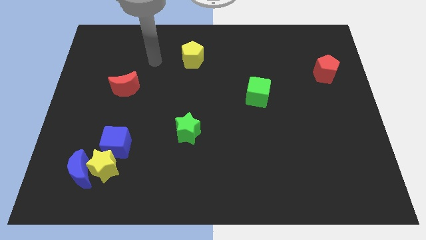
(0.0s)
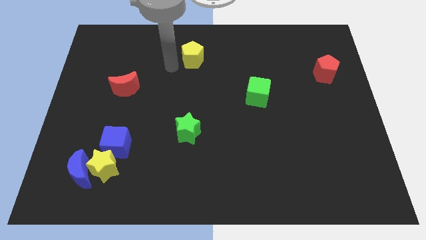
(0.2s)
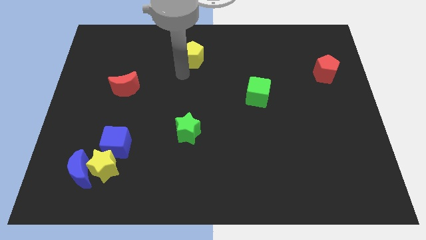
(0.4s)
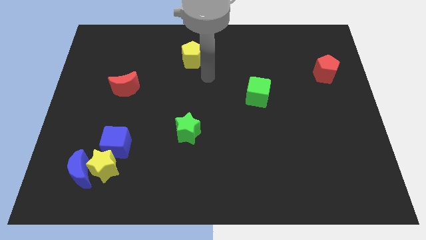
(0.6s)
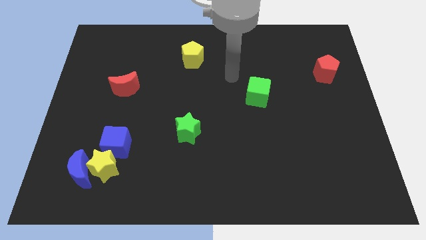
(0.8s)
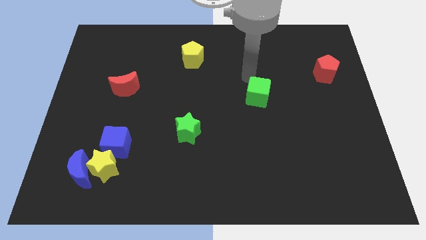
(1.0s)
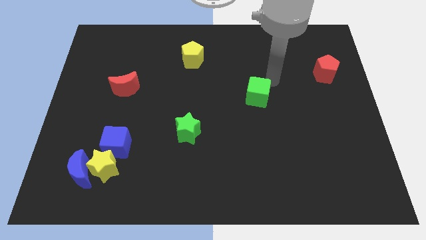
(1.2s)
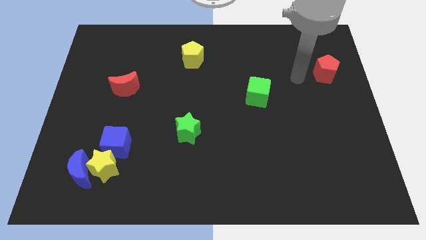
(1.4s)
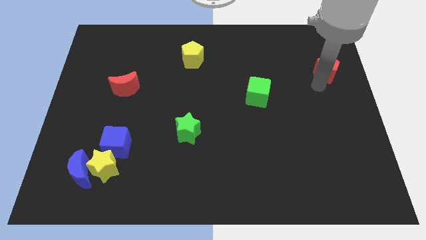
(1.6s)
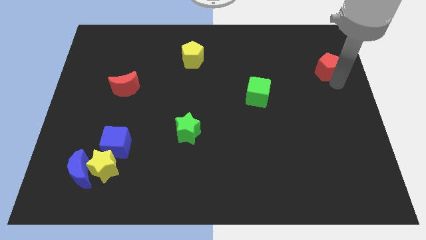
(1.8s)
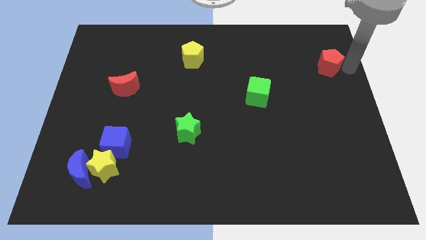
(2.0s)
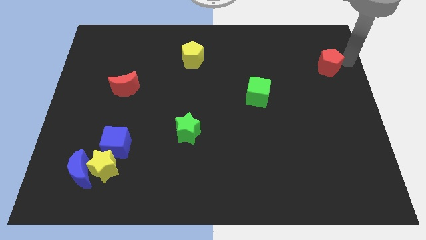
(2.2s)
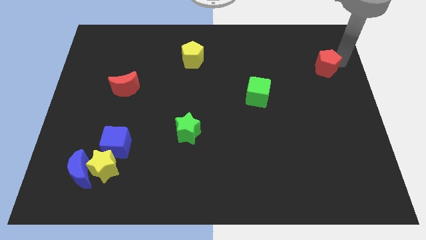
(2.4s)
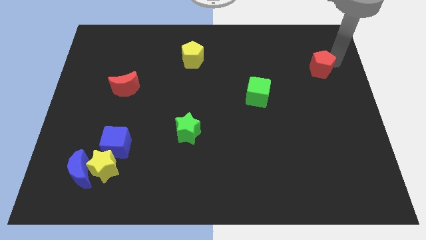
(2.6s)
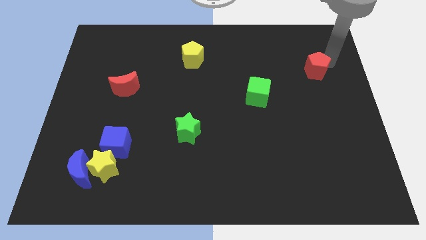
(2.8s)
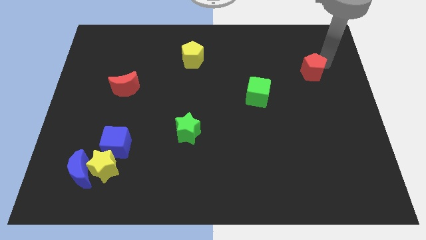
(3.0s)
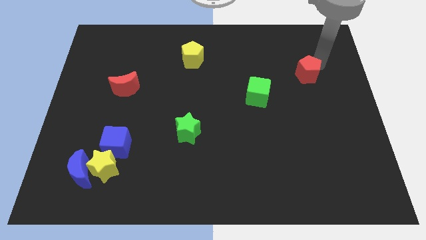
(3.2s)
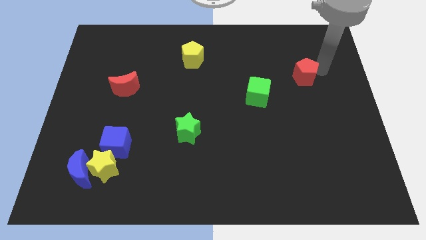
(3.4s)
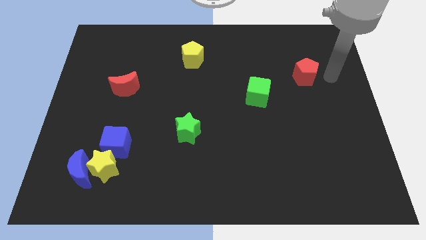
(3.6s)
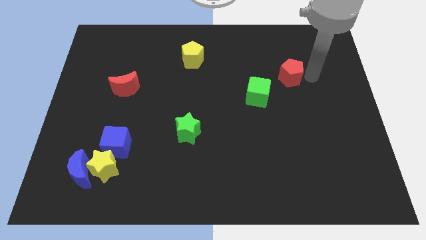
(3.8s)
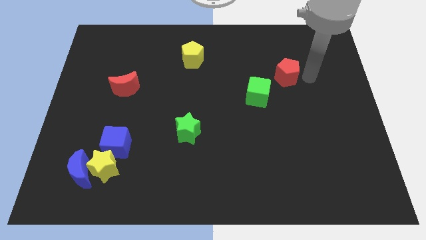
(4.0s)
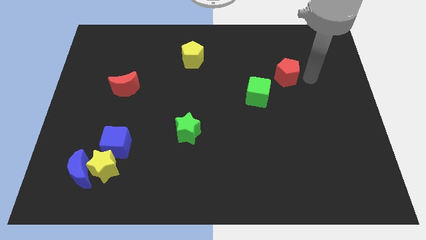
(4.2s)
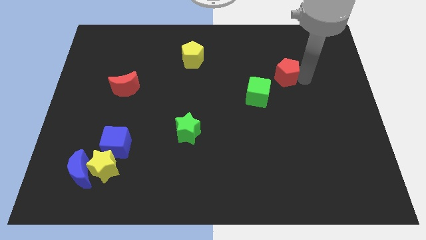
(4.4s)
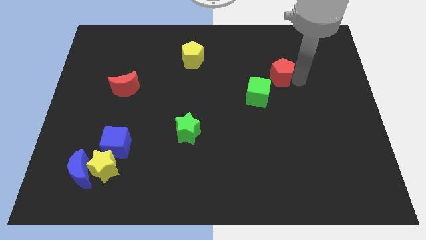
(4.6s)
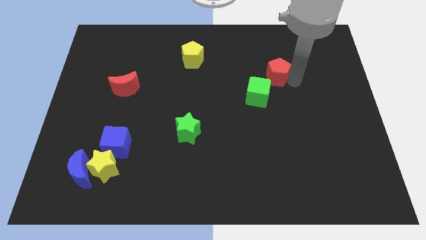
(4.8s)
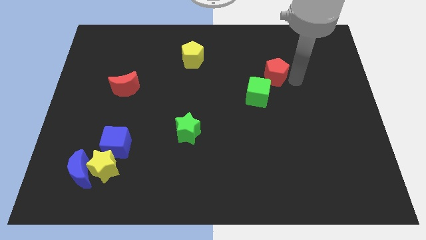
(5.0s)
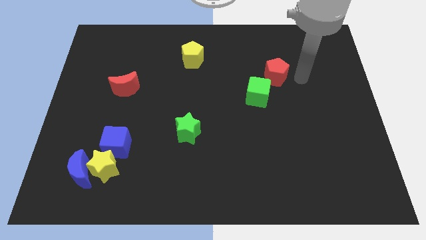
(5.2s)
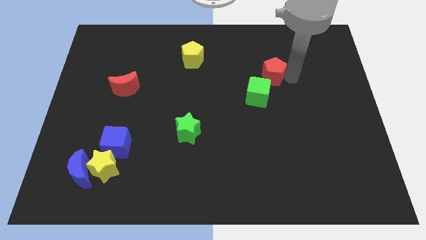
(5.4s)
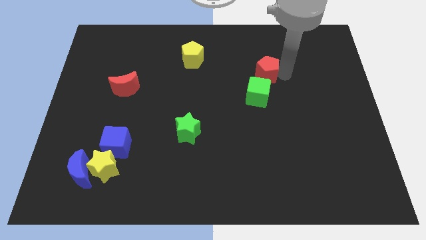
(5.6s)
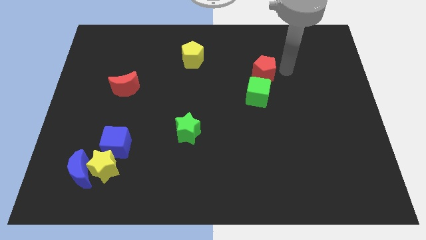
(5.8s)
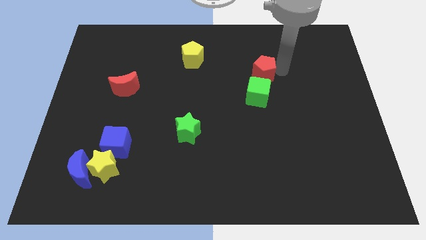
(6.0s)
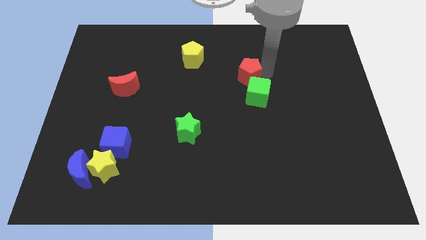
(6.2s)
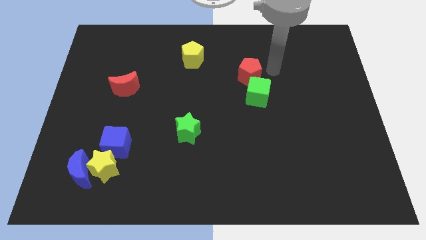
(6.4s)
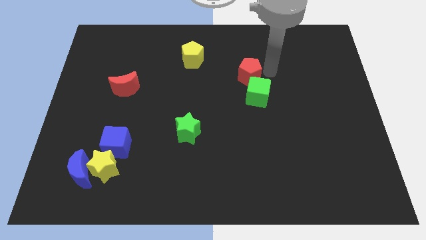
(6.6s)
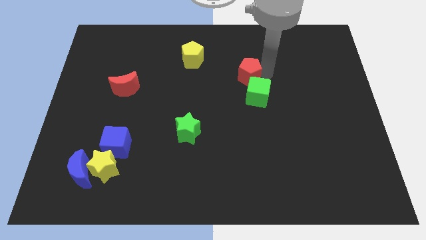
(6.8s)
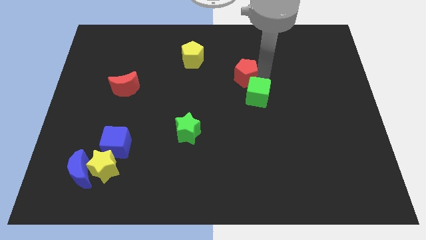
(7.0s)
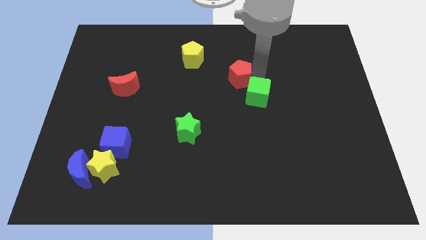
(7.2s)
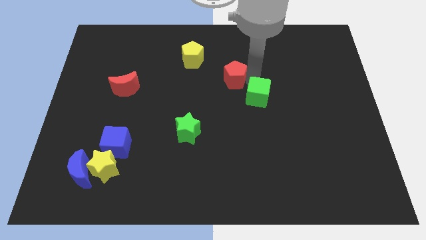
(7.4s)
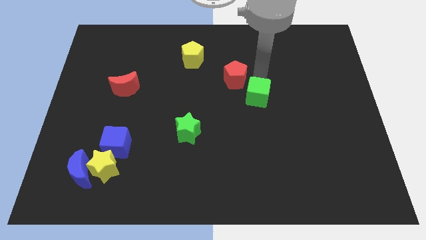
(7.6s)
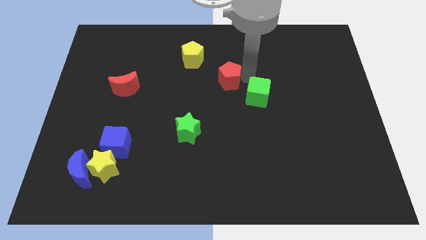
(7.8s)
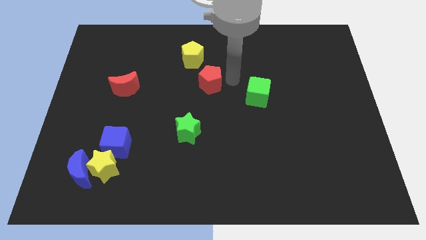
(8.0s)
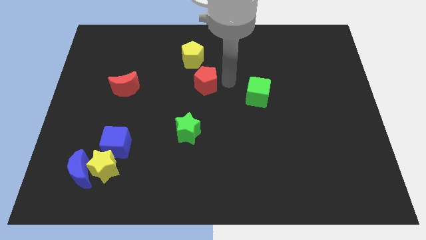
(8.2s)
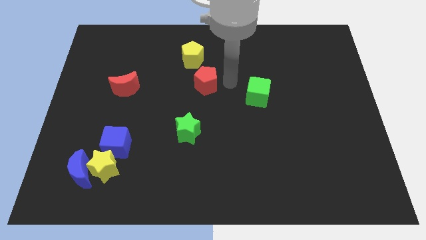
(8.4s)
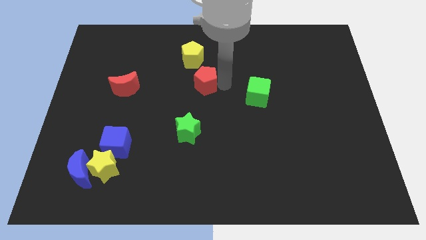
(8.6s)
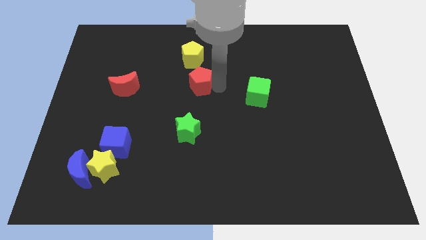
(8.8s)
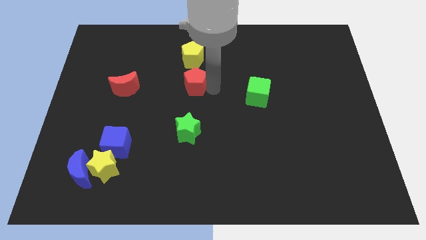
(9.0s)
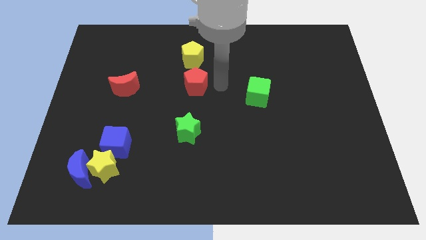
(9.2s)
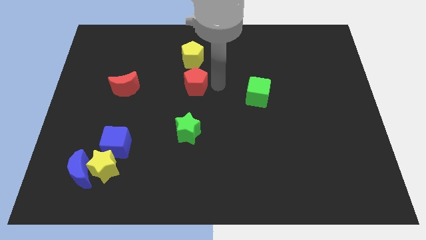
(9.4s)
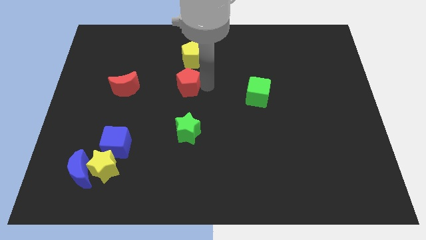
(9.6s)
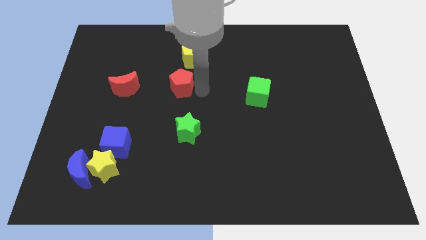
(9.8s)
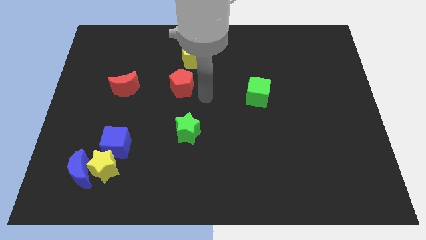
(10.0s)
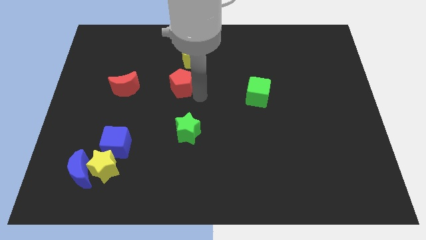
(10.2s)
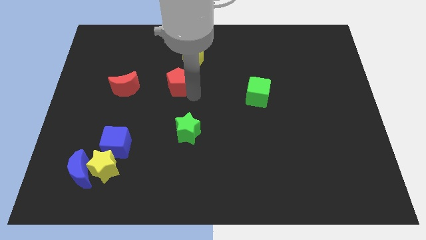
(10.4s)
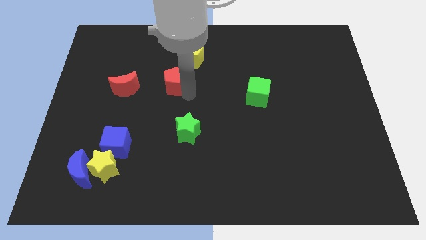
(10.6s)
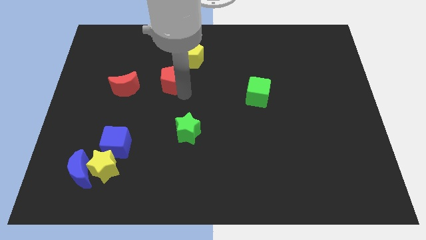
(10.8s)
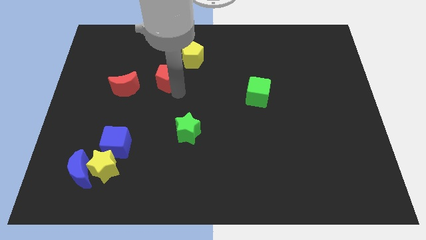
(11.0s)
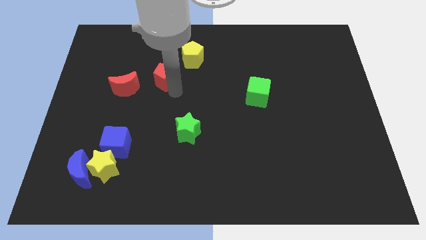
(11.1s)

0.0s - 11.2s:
push the red pentagon diagonally up and to the right of the red moon

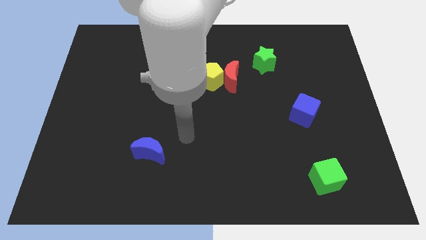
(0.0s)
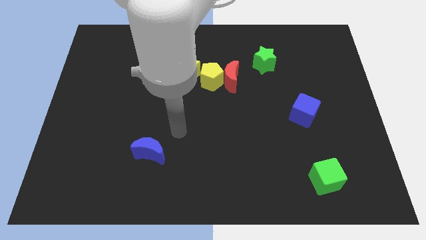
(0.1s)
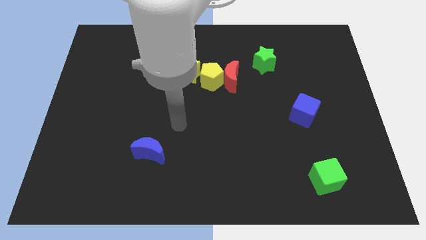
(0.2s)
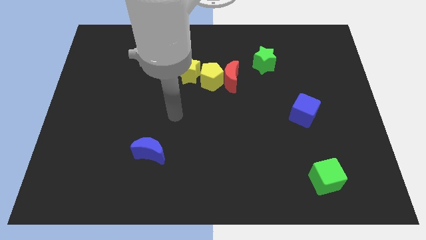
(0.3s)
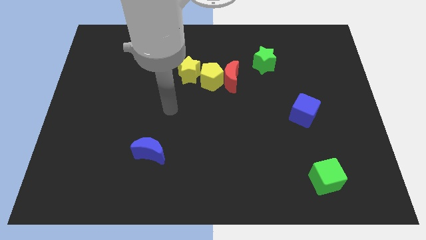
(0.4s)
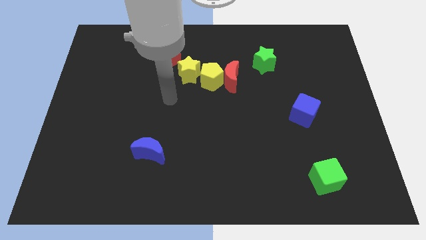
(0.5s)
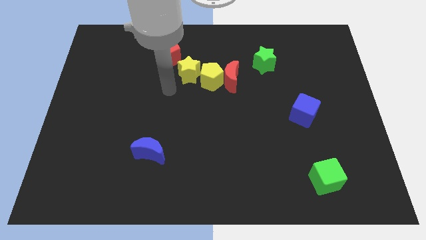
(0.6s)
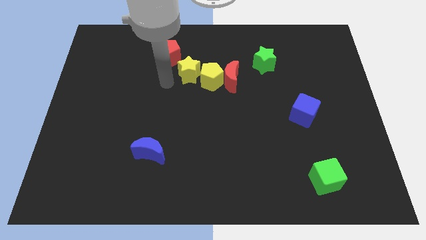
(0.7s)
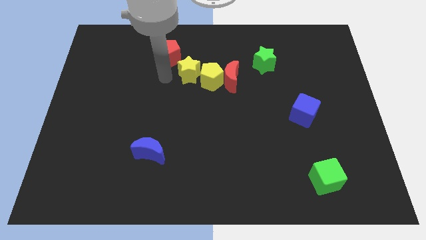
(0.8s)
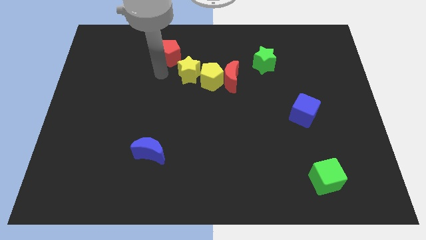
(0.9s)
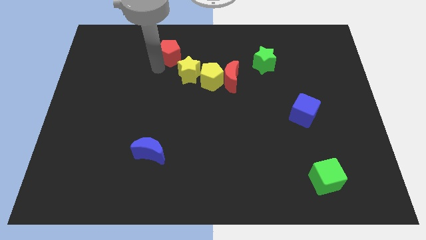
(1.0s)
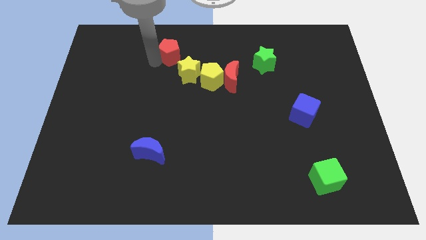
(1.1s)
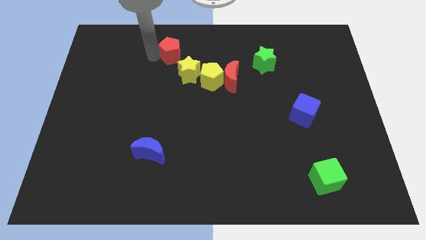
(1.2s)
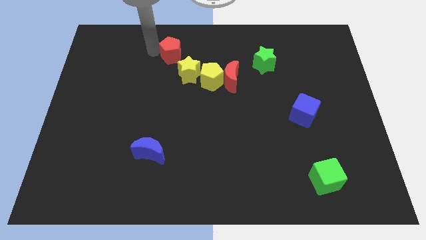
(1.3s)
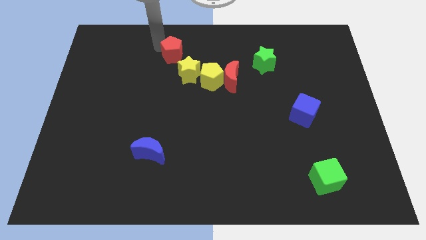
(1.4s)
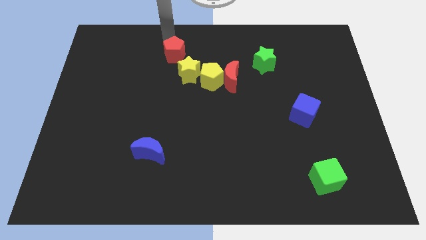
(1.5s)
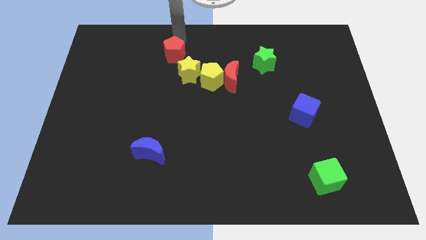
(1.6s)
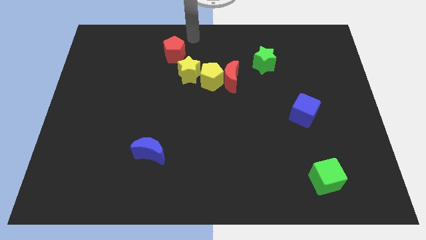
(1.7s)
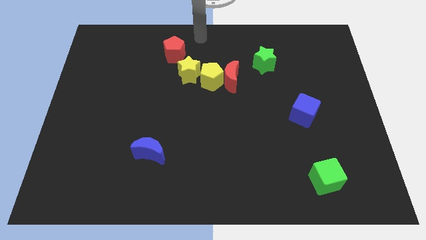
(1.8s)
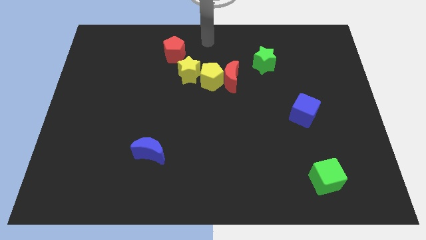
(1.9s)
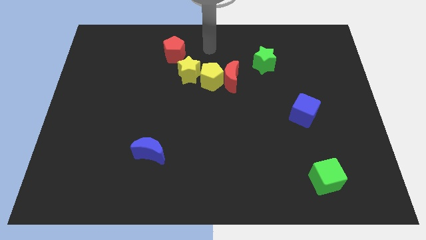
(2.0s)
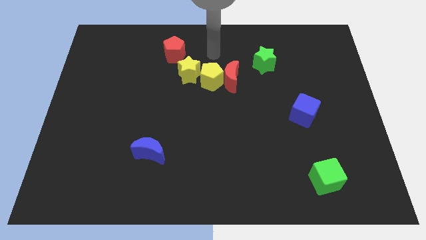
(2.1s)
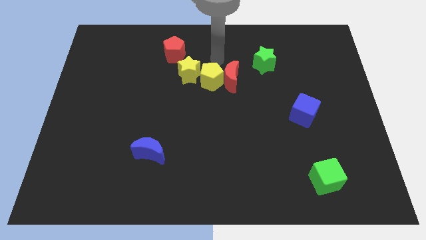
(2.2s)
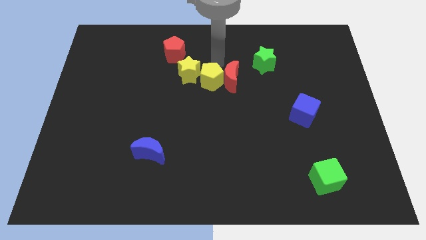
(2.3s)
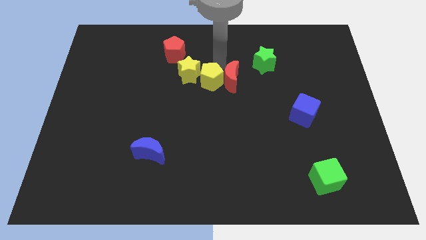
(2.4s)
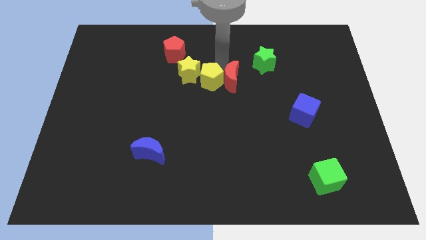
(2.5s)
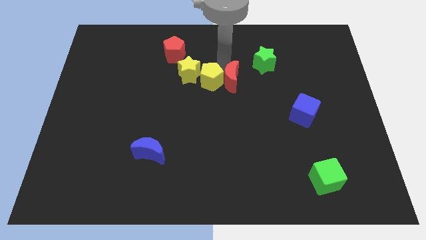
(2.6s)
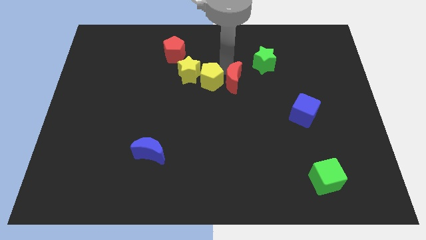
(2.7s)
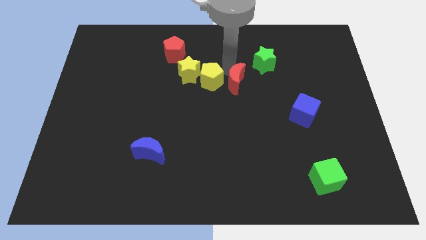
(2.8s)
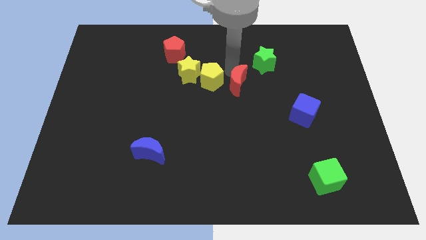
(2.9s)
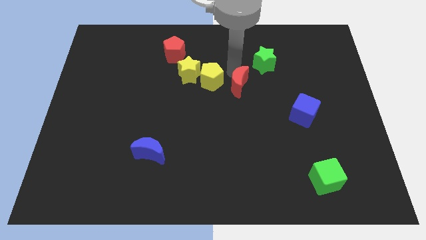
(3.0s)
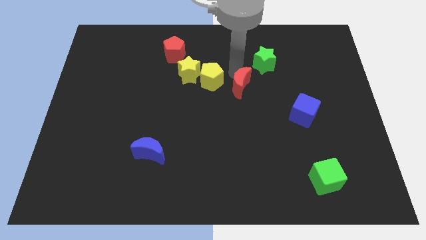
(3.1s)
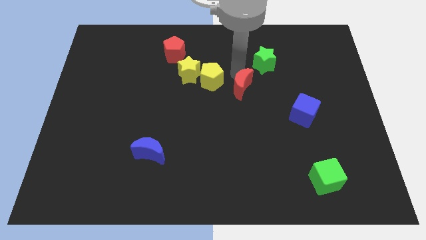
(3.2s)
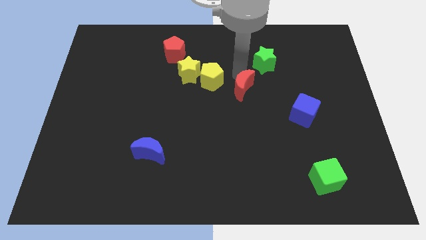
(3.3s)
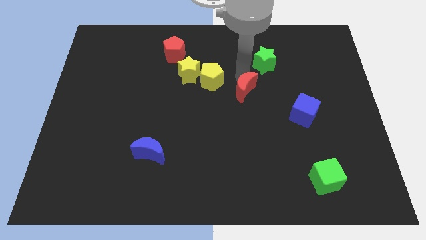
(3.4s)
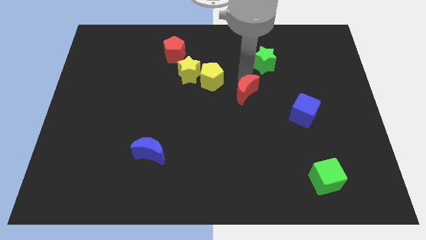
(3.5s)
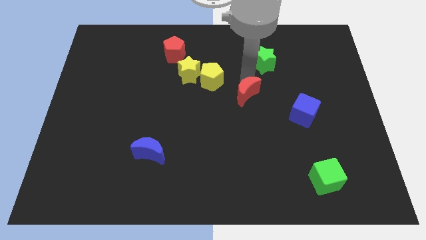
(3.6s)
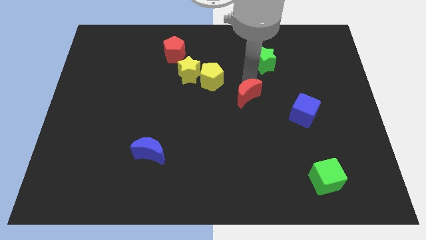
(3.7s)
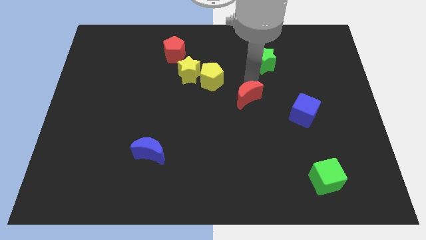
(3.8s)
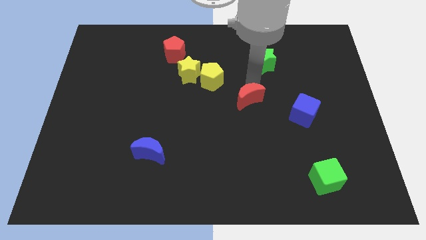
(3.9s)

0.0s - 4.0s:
move the red moon left of the blue cube
